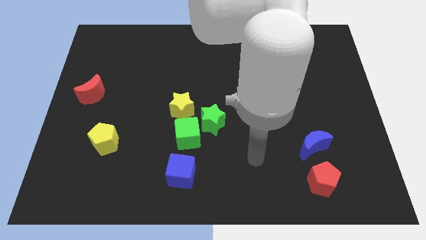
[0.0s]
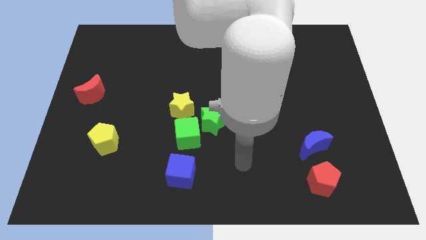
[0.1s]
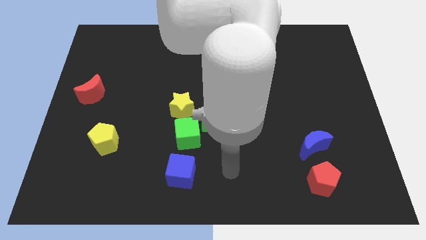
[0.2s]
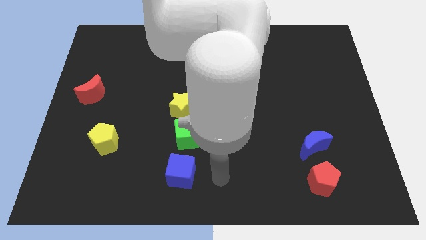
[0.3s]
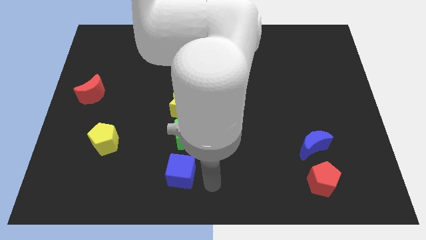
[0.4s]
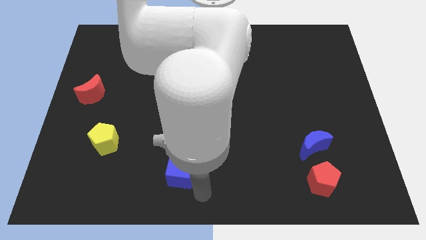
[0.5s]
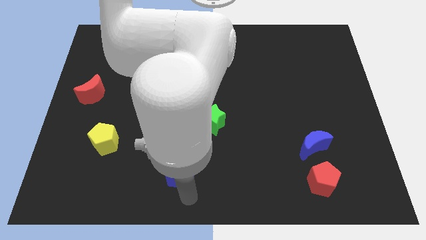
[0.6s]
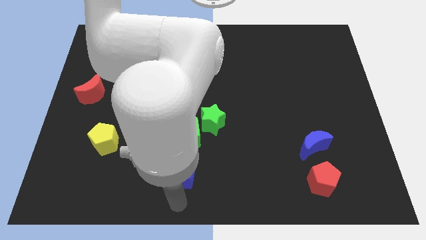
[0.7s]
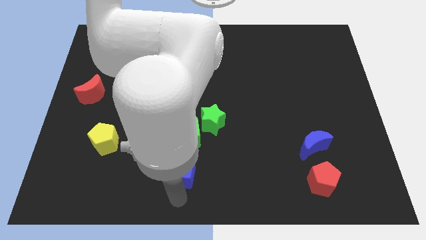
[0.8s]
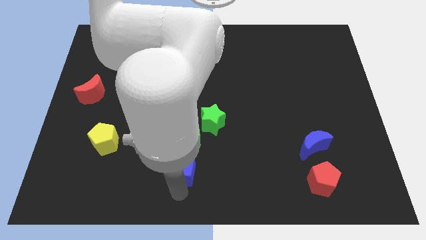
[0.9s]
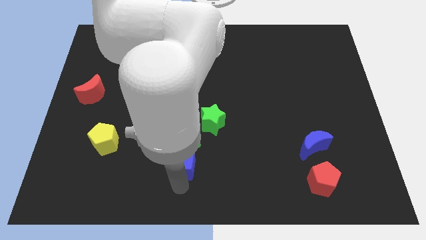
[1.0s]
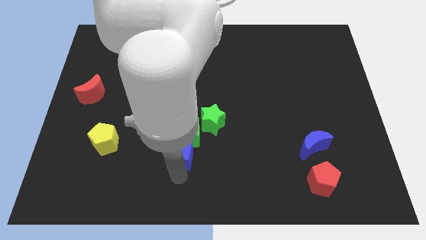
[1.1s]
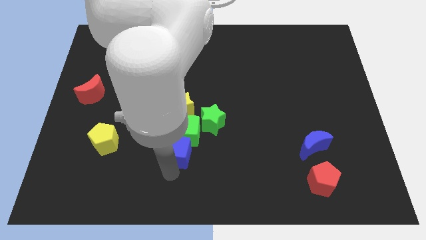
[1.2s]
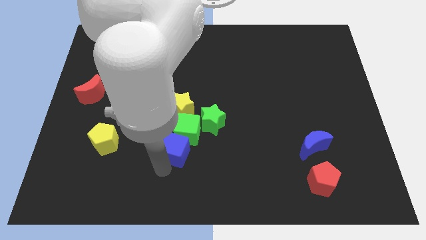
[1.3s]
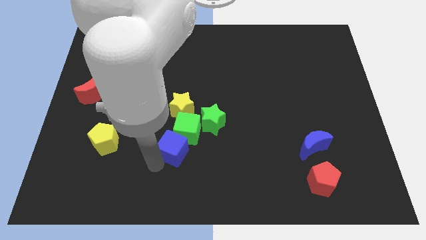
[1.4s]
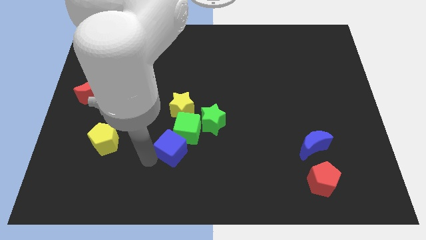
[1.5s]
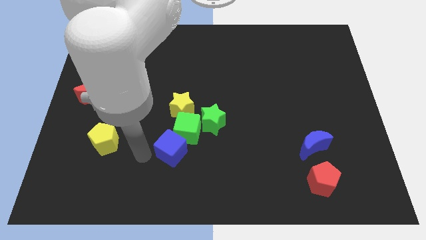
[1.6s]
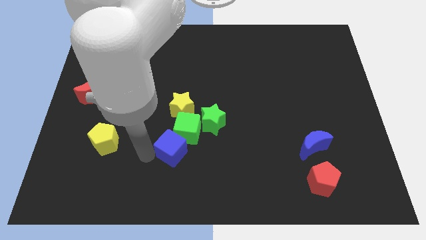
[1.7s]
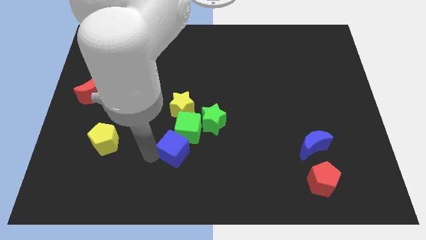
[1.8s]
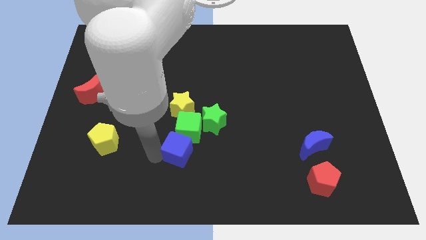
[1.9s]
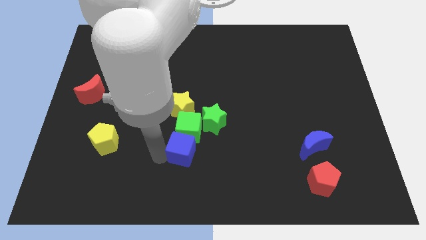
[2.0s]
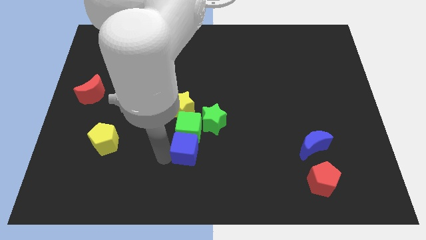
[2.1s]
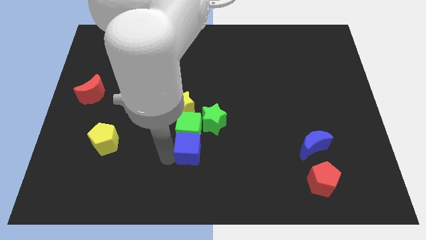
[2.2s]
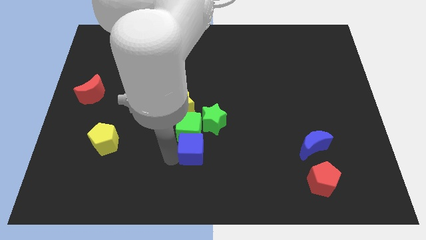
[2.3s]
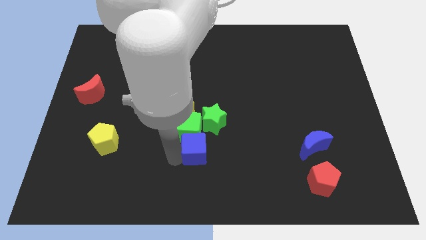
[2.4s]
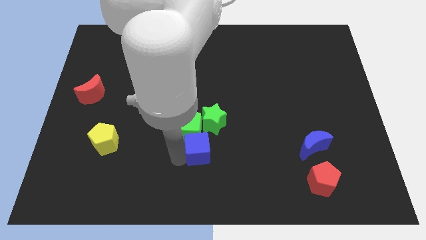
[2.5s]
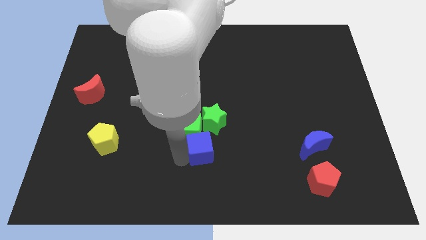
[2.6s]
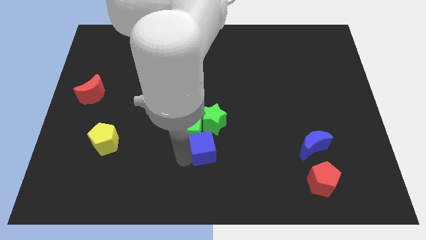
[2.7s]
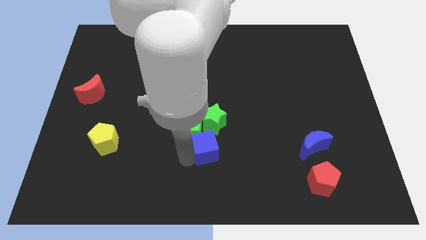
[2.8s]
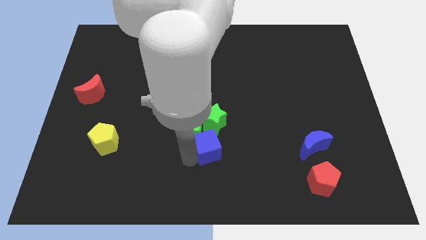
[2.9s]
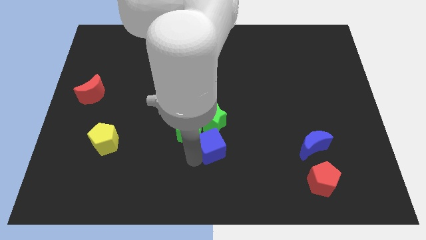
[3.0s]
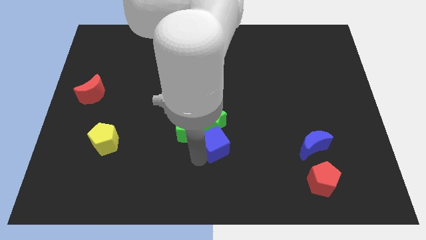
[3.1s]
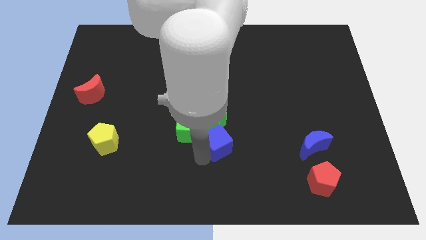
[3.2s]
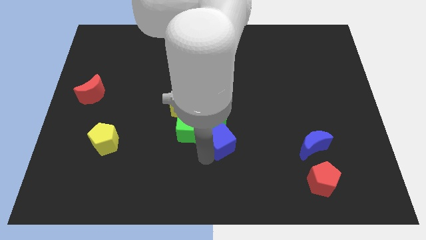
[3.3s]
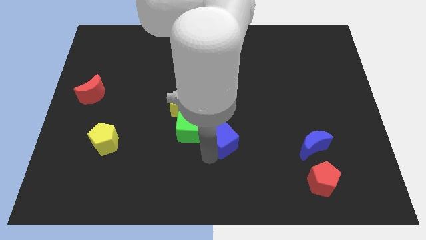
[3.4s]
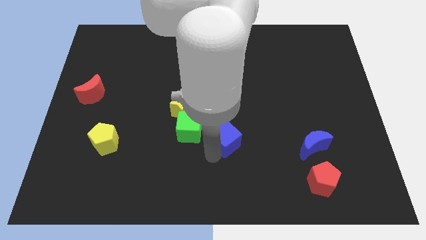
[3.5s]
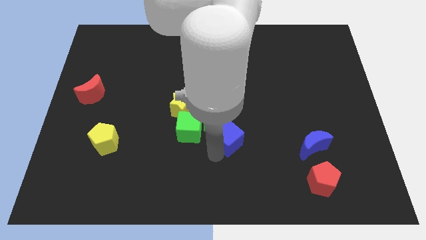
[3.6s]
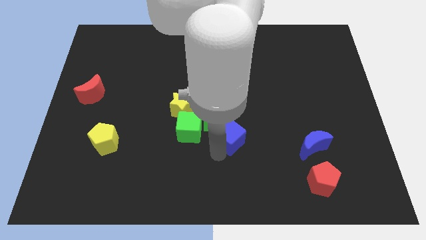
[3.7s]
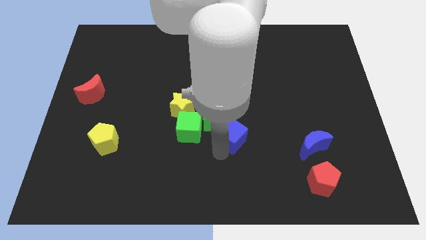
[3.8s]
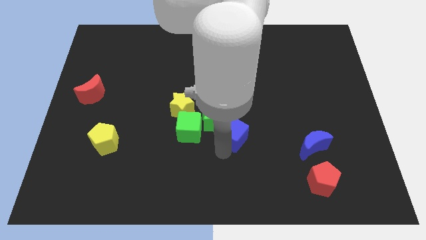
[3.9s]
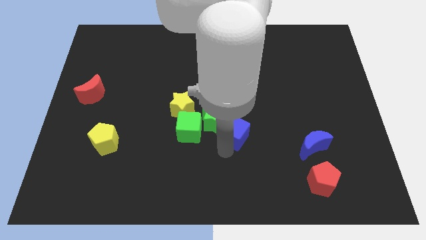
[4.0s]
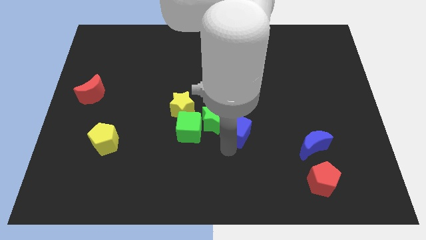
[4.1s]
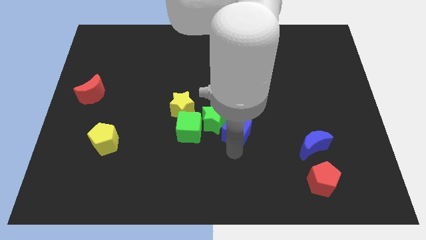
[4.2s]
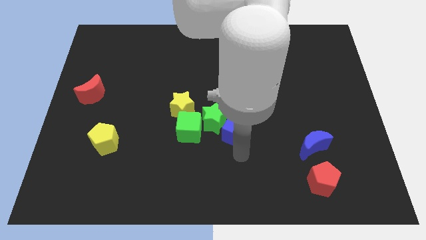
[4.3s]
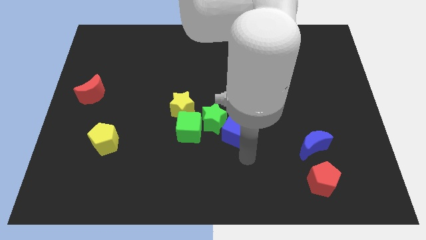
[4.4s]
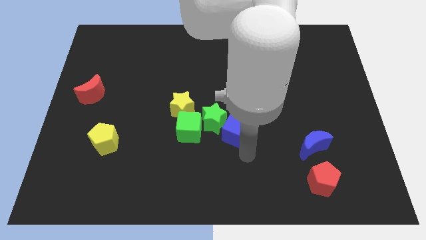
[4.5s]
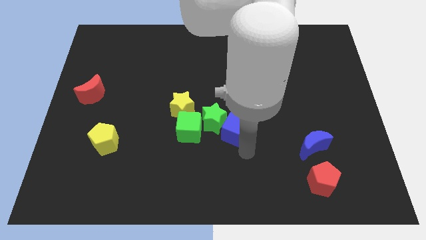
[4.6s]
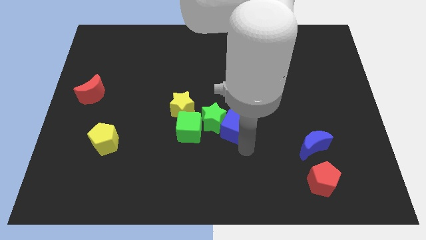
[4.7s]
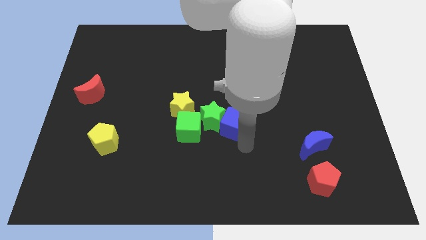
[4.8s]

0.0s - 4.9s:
slide the blue cube just right of the yellow star

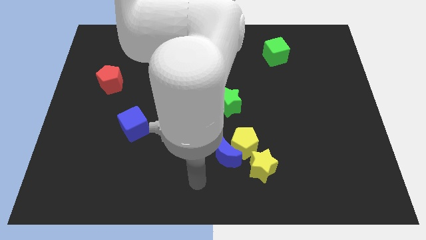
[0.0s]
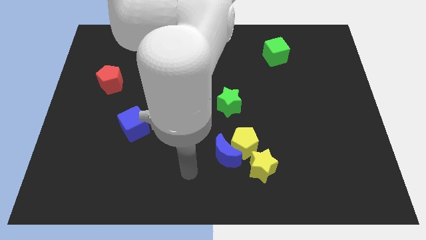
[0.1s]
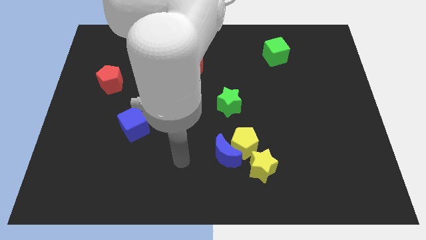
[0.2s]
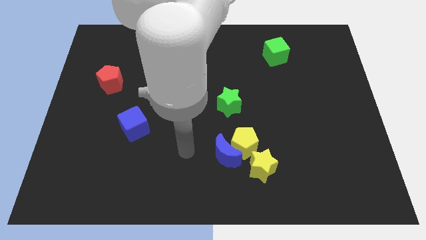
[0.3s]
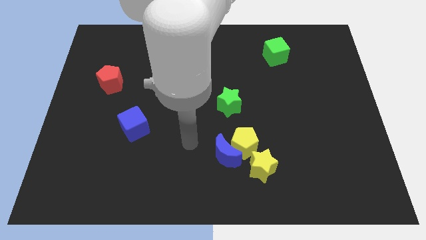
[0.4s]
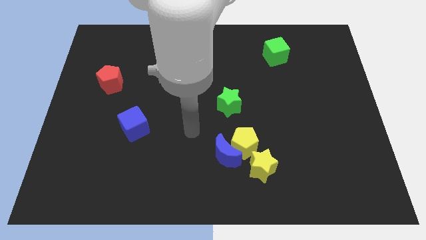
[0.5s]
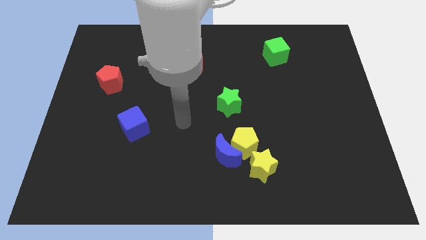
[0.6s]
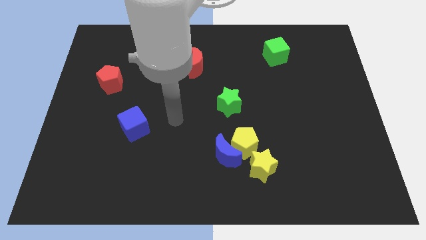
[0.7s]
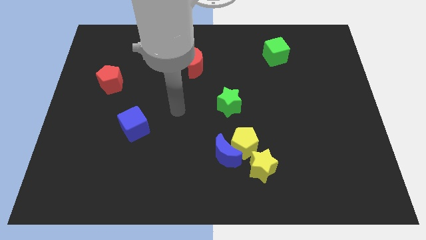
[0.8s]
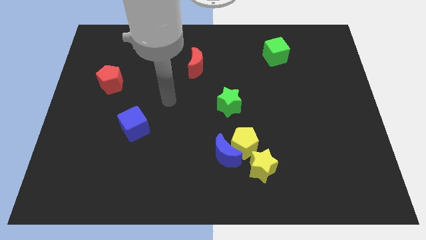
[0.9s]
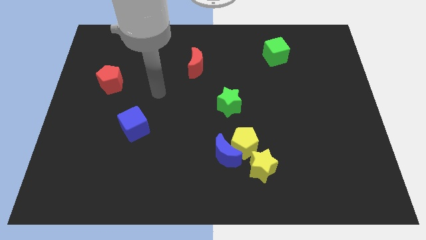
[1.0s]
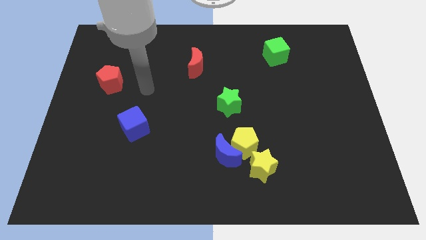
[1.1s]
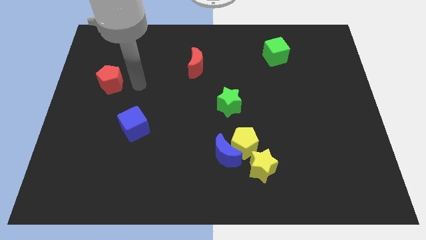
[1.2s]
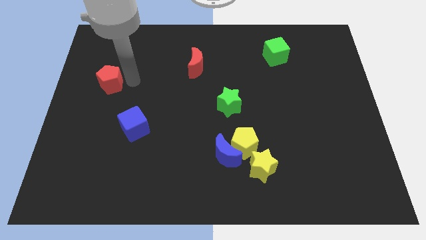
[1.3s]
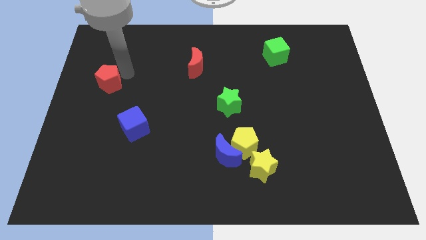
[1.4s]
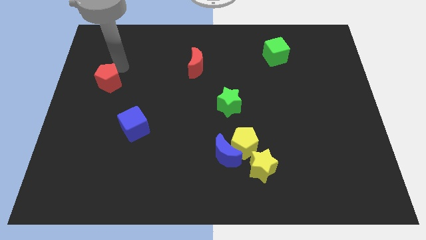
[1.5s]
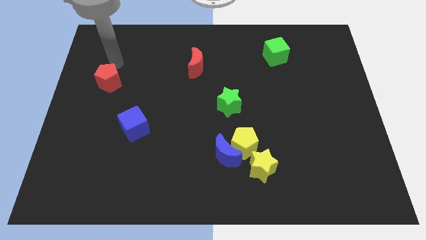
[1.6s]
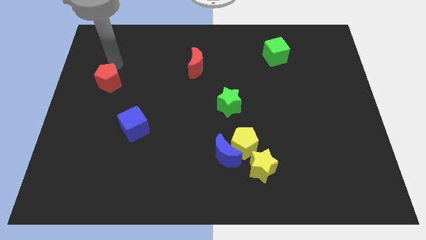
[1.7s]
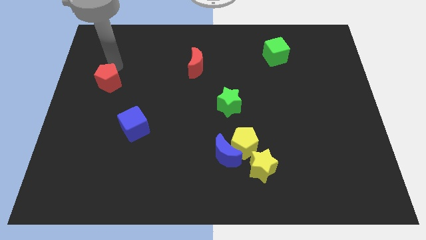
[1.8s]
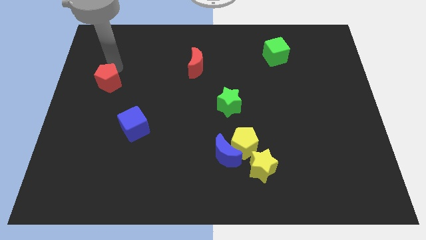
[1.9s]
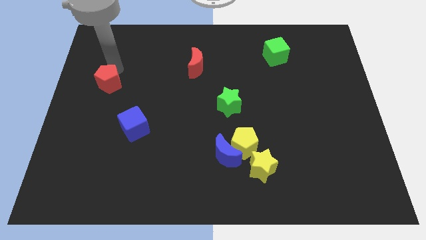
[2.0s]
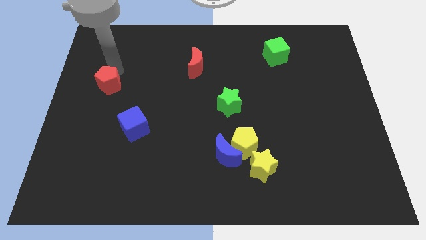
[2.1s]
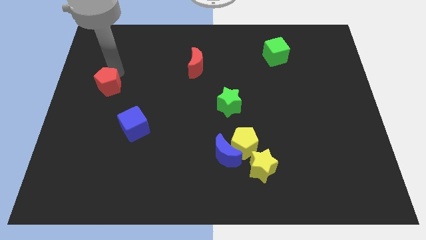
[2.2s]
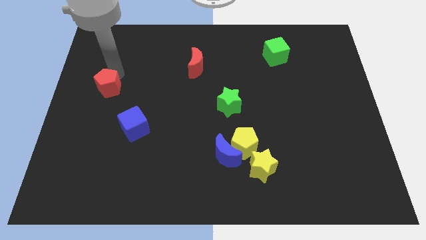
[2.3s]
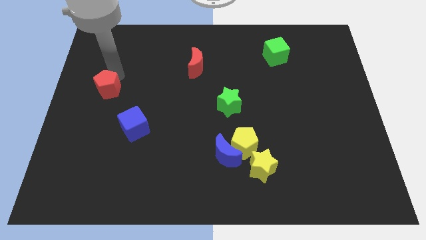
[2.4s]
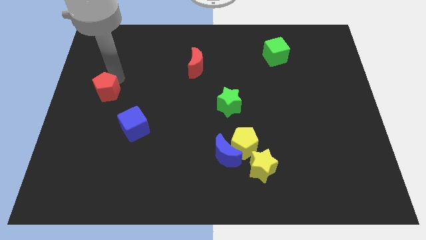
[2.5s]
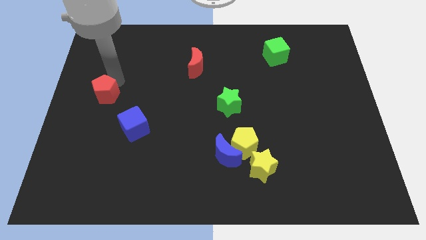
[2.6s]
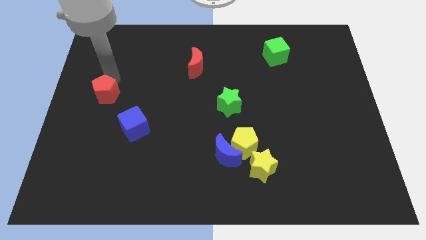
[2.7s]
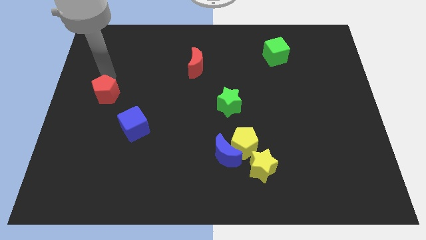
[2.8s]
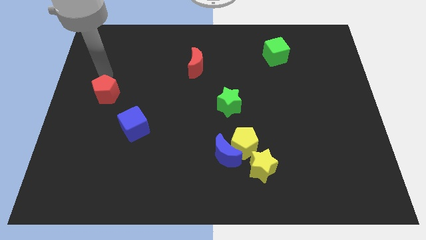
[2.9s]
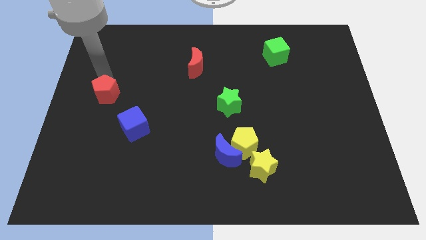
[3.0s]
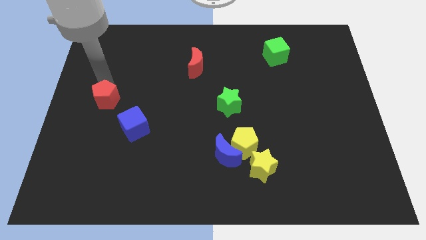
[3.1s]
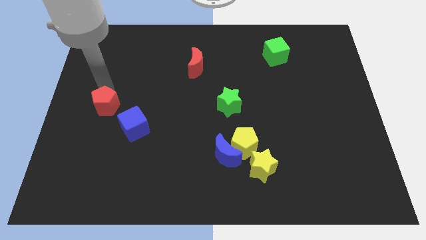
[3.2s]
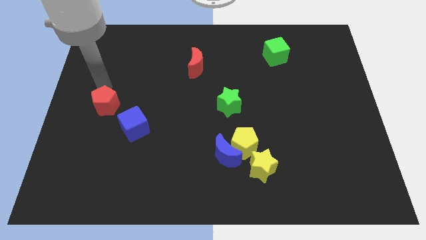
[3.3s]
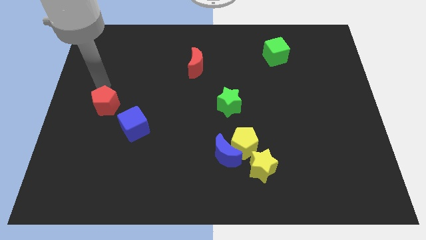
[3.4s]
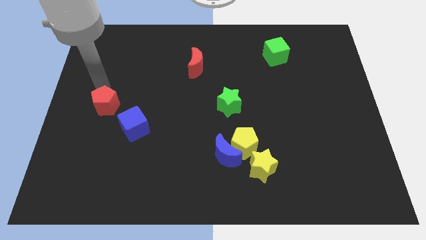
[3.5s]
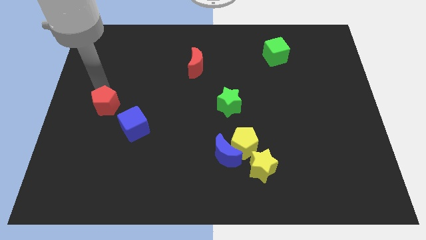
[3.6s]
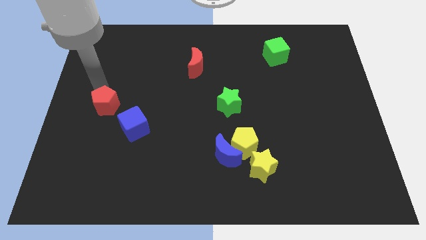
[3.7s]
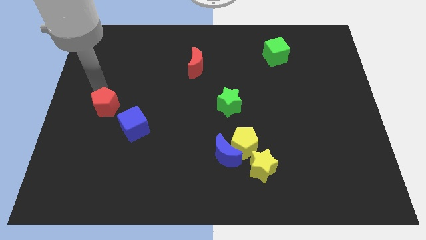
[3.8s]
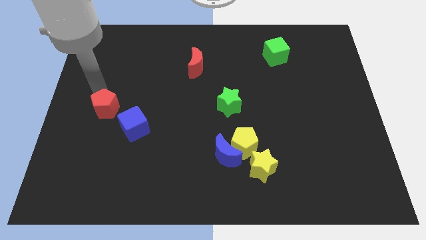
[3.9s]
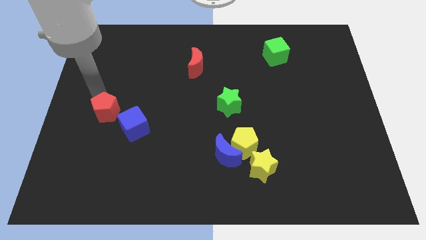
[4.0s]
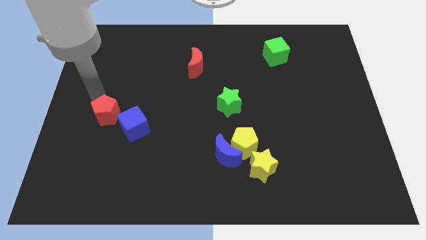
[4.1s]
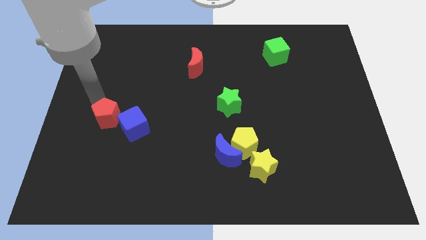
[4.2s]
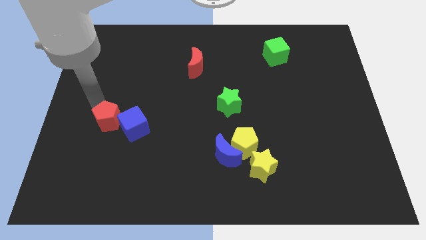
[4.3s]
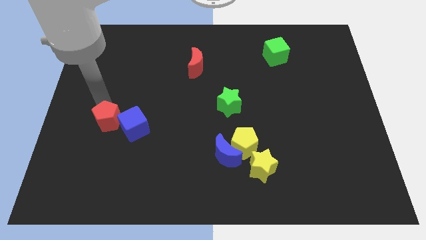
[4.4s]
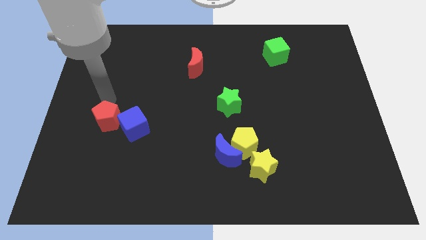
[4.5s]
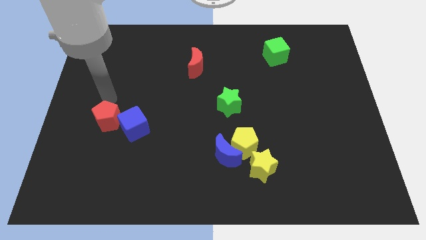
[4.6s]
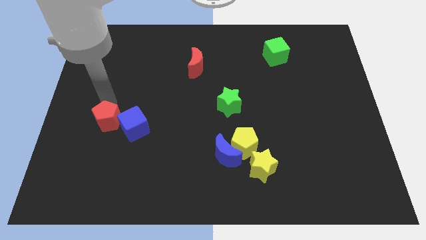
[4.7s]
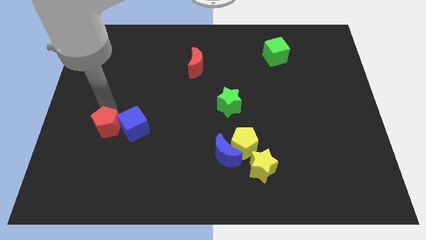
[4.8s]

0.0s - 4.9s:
move the red pentagon diagonally down and to the left of the blue cube
